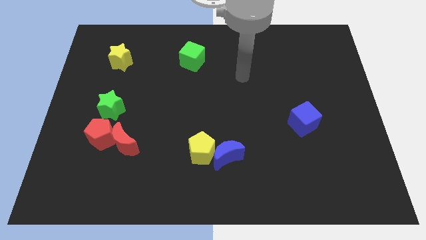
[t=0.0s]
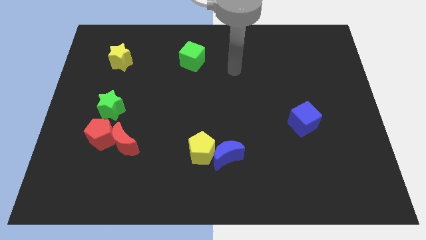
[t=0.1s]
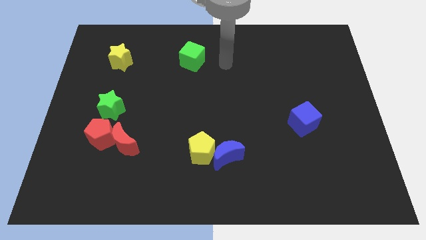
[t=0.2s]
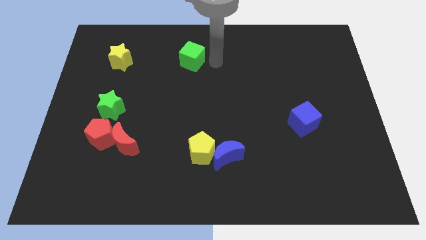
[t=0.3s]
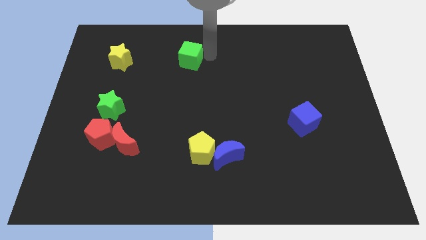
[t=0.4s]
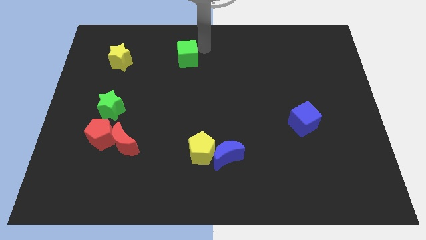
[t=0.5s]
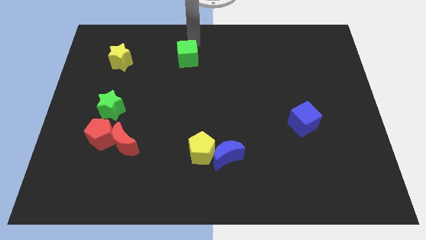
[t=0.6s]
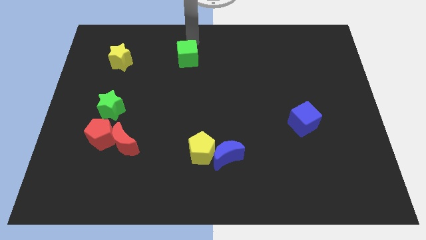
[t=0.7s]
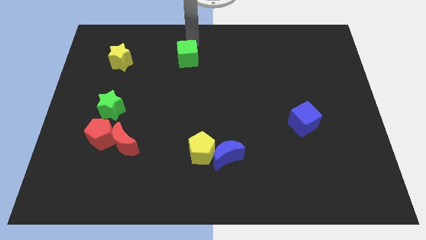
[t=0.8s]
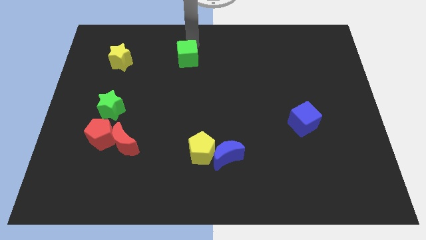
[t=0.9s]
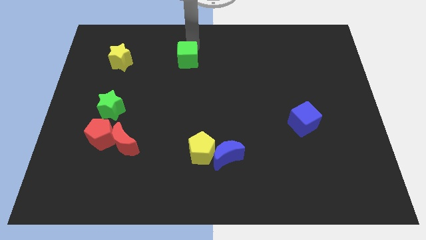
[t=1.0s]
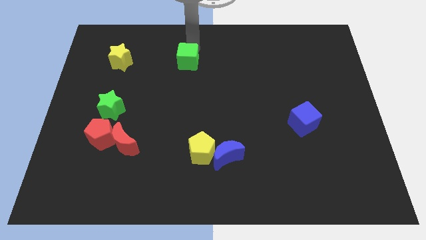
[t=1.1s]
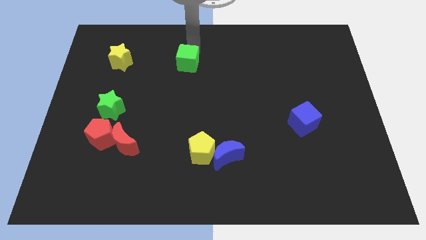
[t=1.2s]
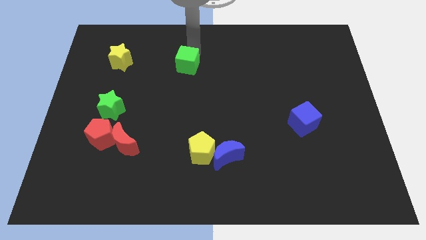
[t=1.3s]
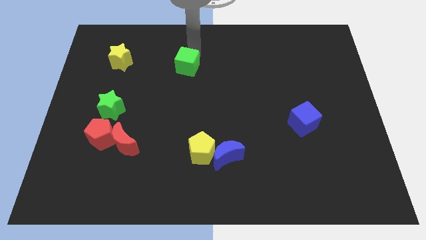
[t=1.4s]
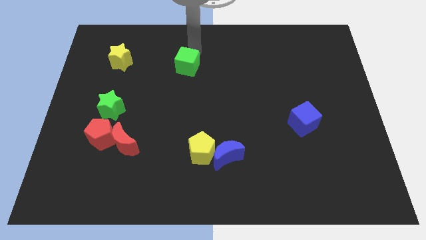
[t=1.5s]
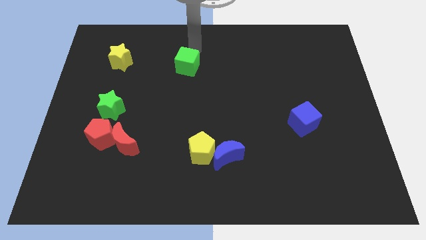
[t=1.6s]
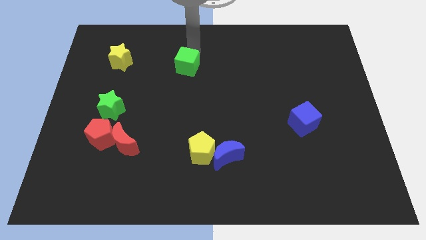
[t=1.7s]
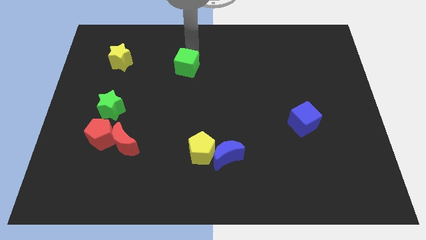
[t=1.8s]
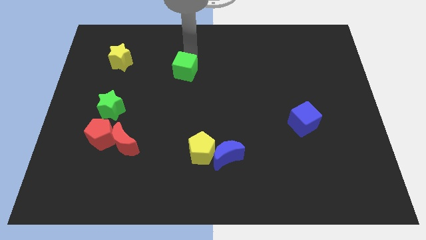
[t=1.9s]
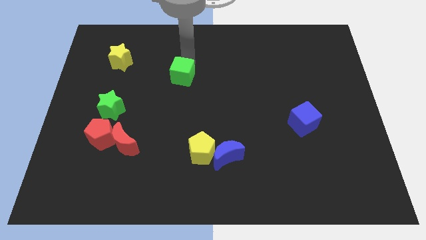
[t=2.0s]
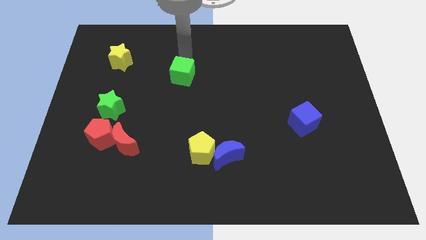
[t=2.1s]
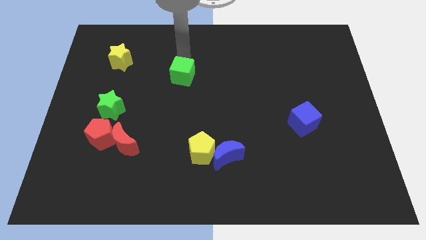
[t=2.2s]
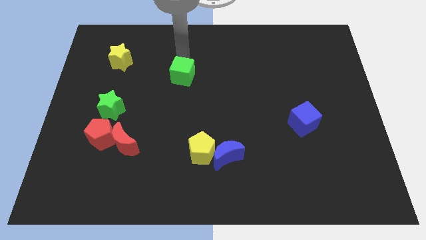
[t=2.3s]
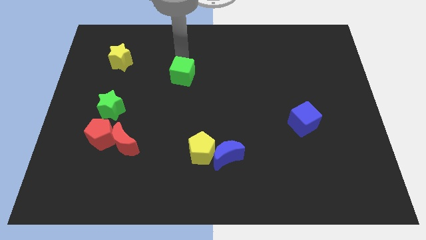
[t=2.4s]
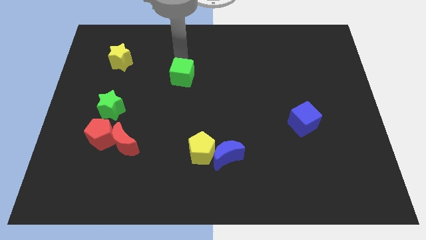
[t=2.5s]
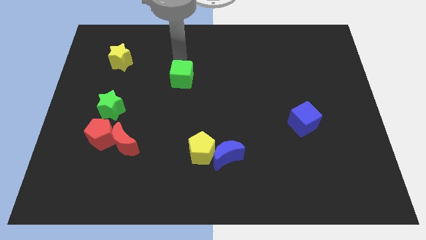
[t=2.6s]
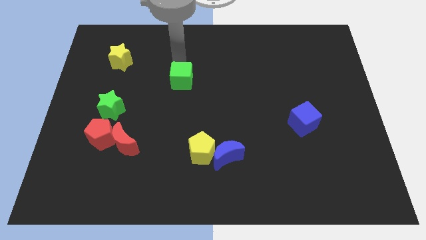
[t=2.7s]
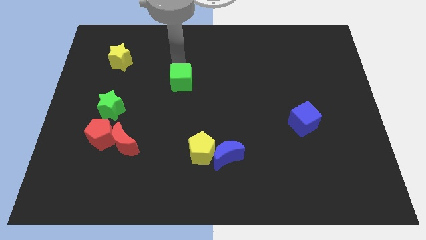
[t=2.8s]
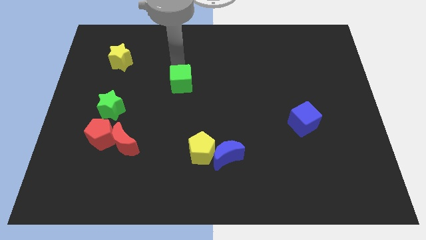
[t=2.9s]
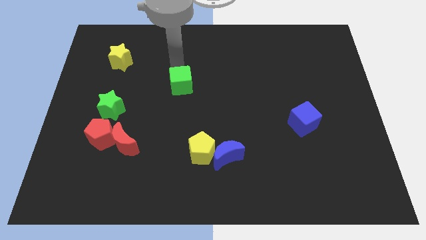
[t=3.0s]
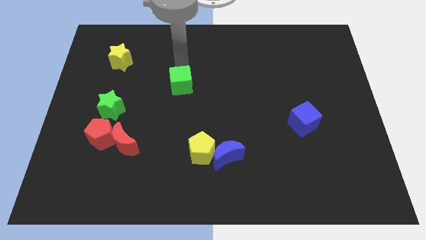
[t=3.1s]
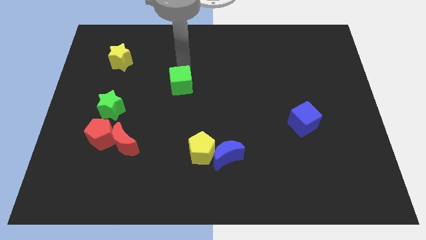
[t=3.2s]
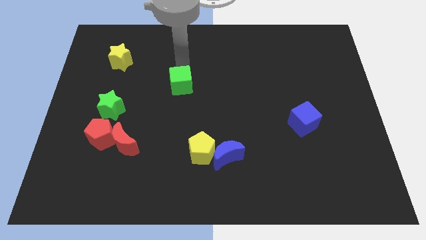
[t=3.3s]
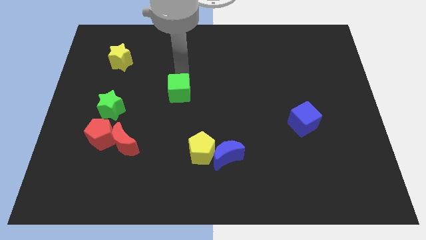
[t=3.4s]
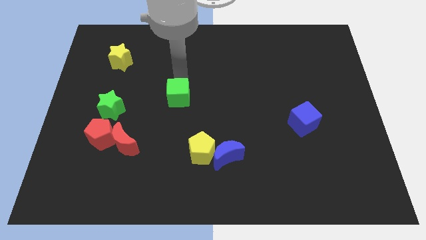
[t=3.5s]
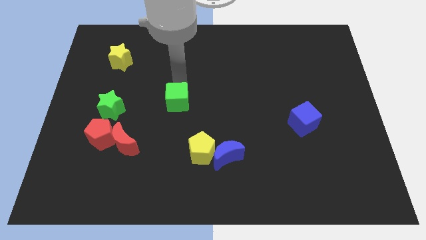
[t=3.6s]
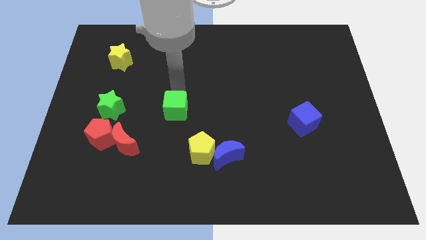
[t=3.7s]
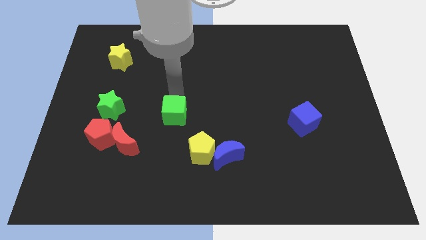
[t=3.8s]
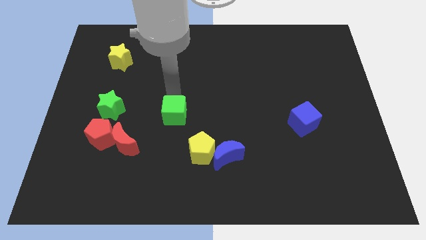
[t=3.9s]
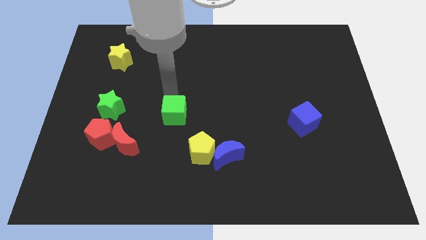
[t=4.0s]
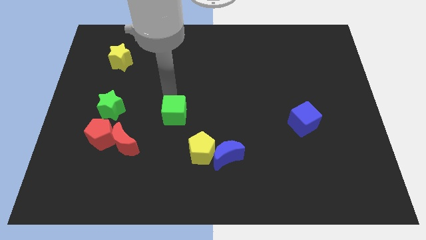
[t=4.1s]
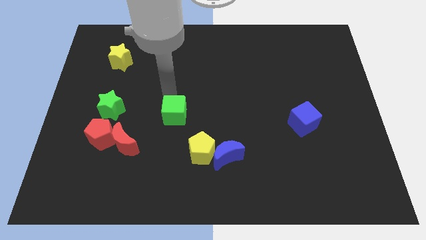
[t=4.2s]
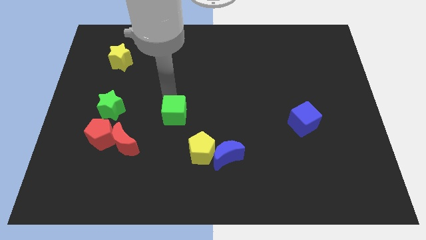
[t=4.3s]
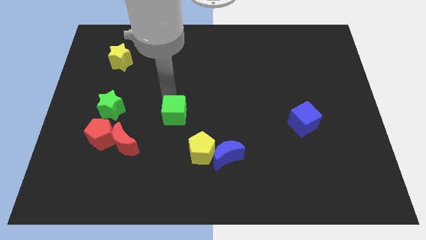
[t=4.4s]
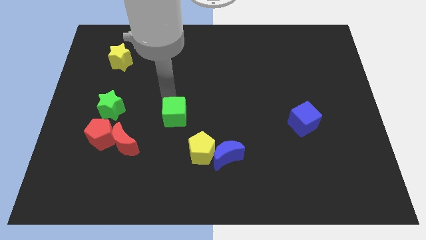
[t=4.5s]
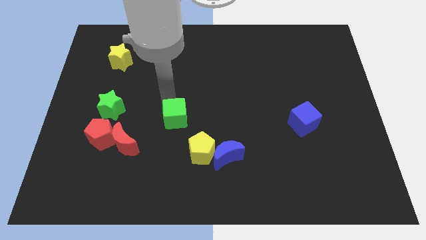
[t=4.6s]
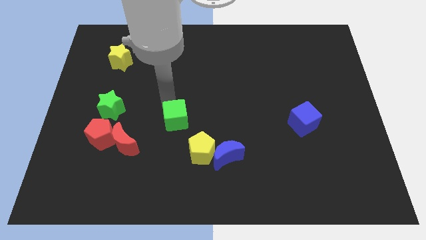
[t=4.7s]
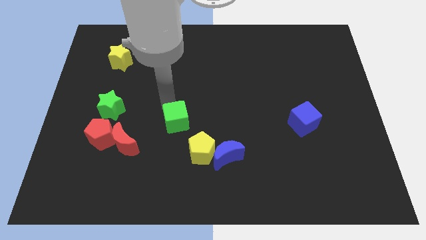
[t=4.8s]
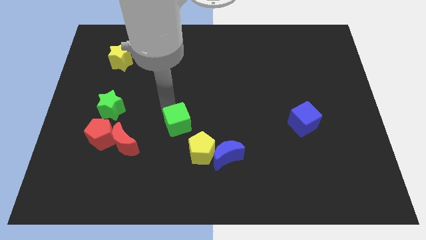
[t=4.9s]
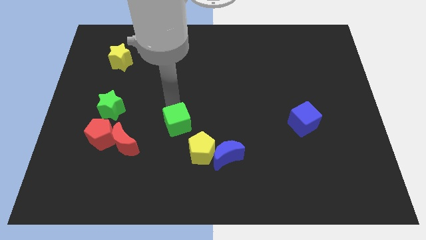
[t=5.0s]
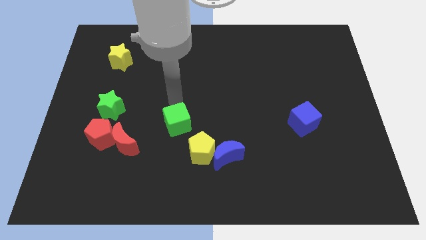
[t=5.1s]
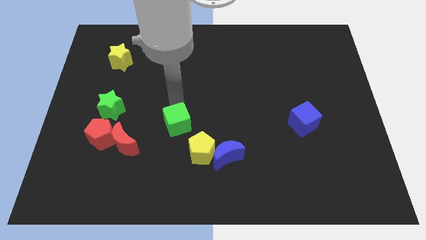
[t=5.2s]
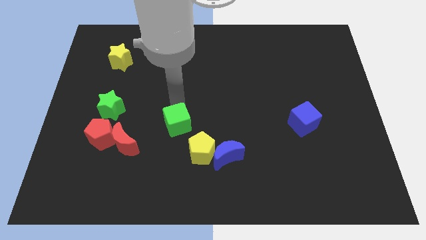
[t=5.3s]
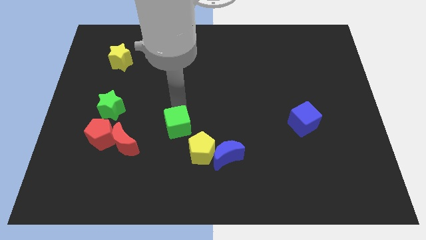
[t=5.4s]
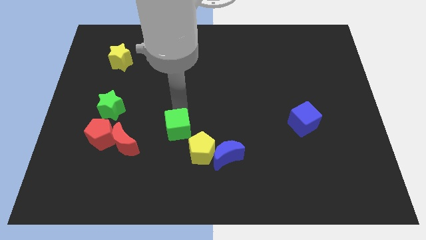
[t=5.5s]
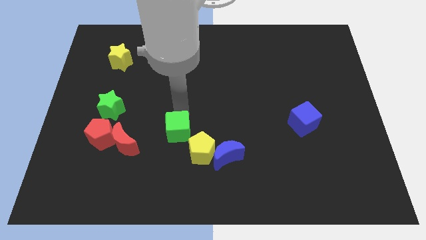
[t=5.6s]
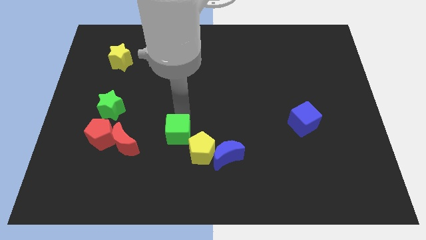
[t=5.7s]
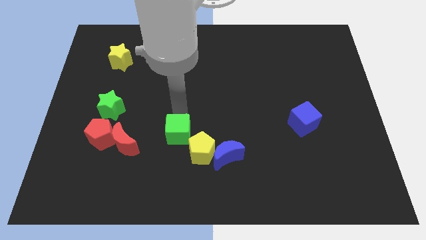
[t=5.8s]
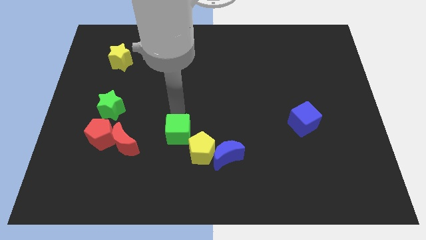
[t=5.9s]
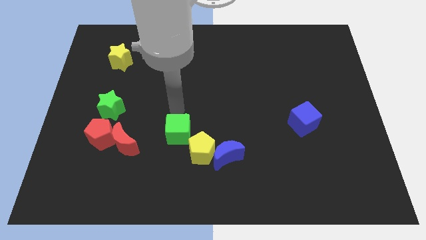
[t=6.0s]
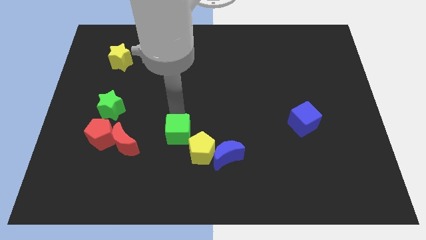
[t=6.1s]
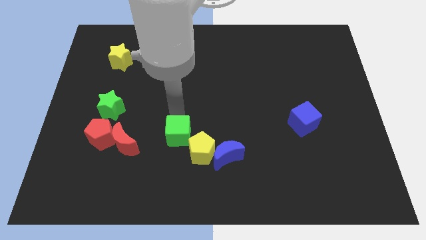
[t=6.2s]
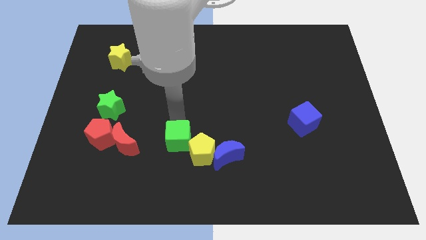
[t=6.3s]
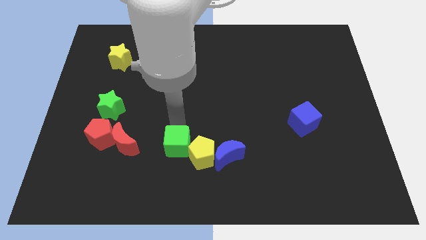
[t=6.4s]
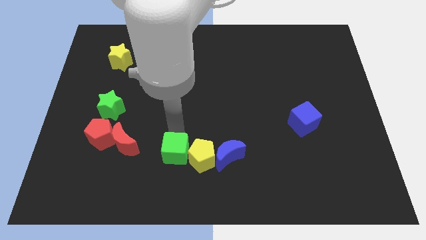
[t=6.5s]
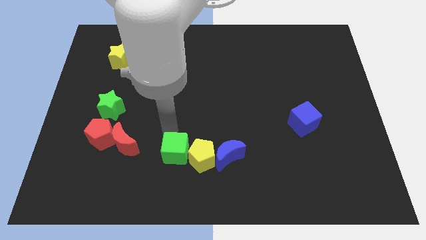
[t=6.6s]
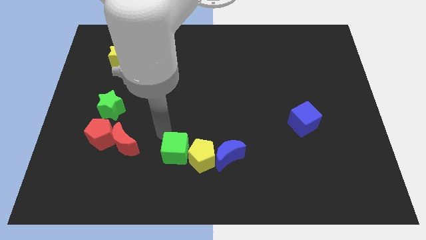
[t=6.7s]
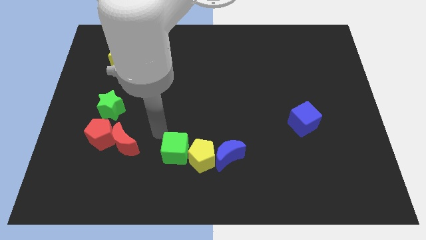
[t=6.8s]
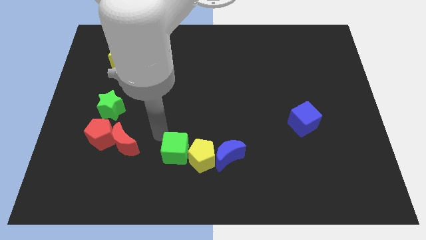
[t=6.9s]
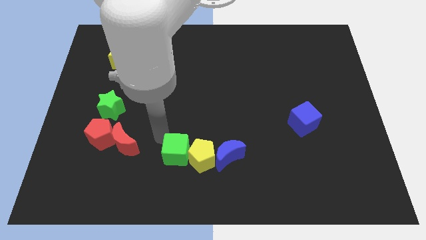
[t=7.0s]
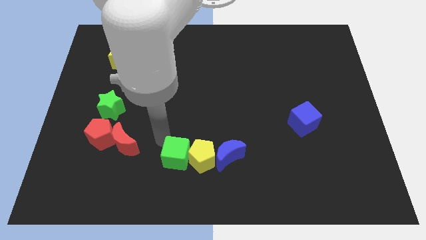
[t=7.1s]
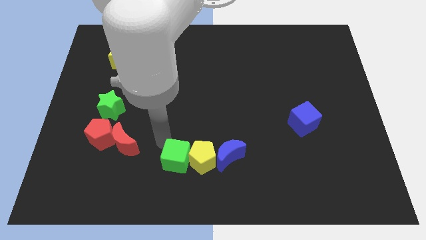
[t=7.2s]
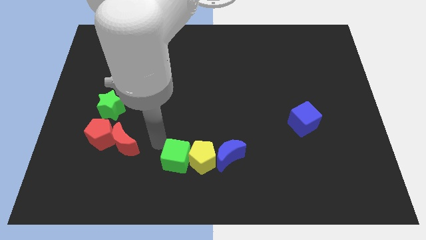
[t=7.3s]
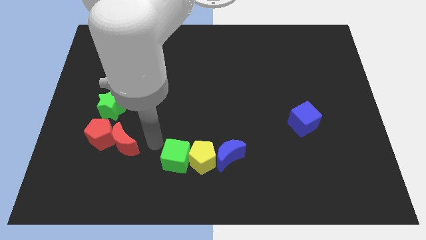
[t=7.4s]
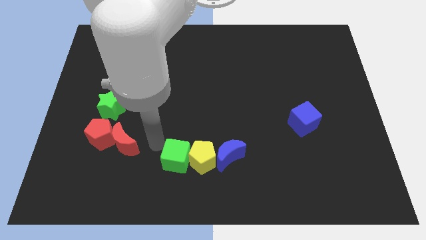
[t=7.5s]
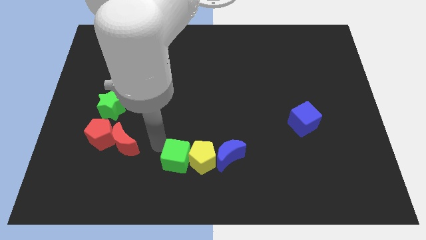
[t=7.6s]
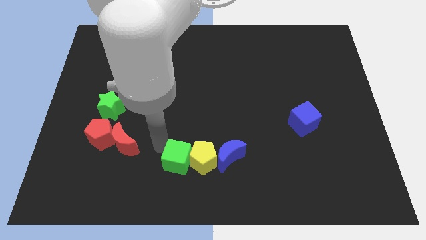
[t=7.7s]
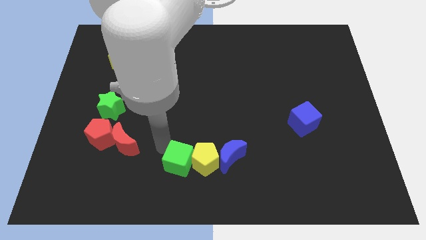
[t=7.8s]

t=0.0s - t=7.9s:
move the green cube to the bottom side
